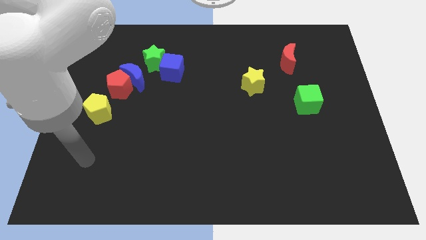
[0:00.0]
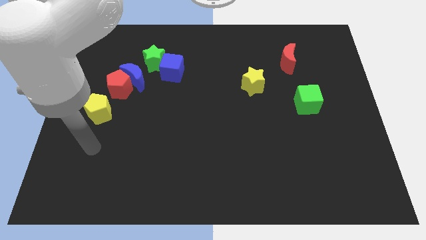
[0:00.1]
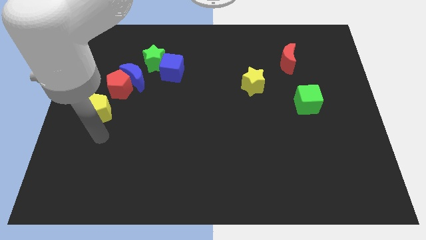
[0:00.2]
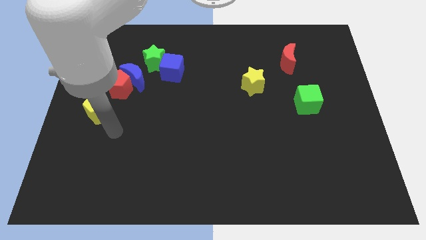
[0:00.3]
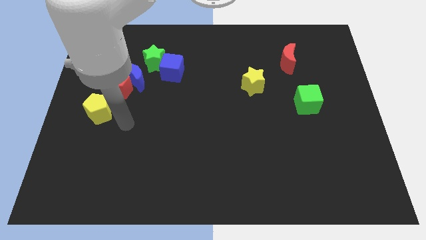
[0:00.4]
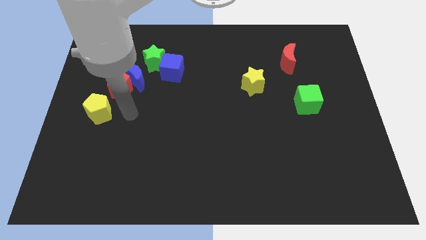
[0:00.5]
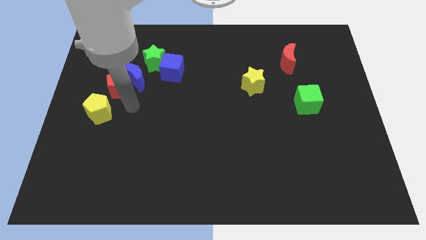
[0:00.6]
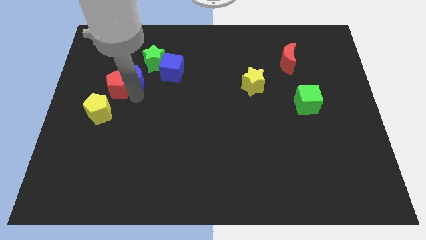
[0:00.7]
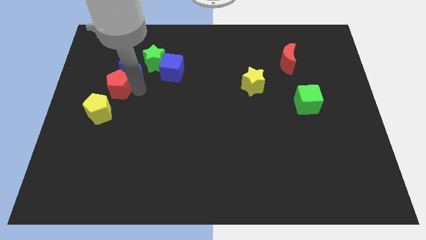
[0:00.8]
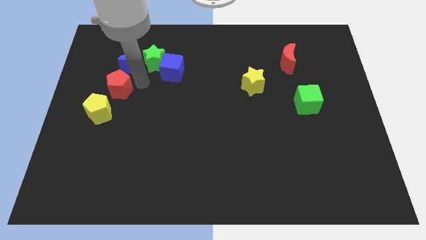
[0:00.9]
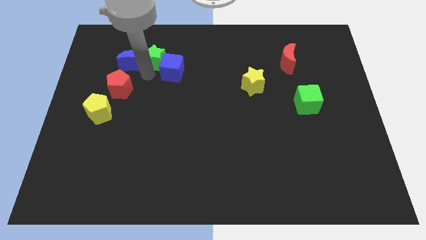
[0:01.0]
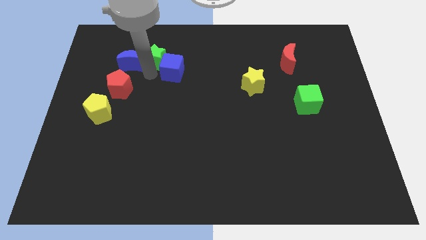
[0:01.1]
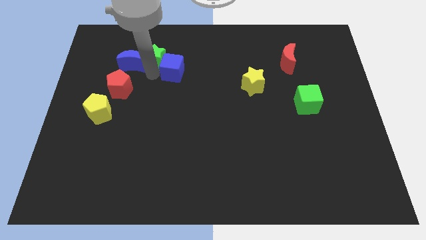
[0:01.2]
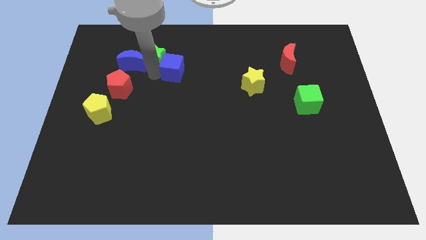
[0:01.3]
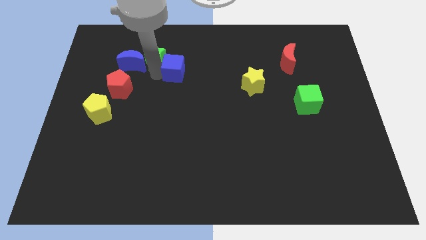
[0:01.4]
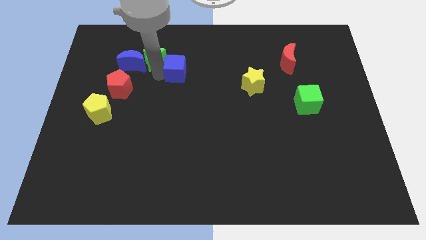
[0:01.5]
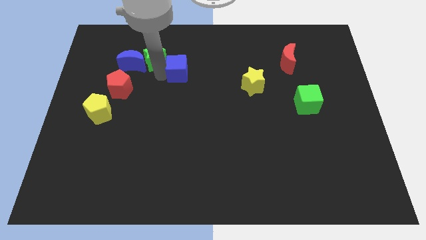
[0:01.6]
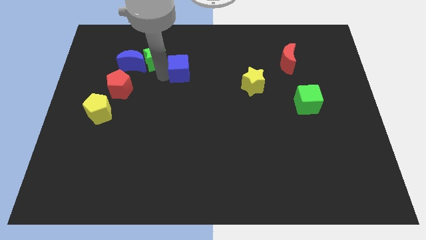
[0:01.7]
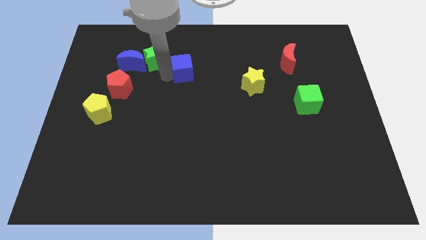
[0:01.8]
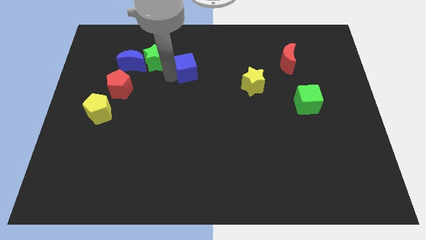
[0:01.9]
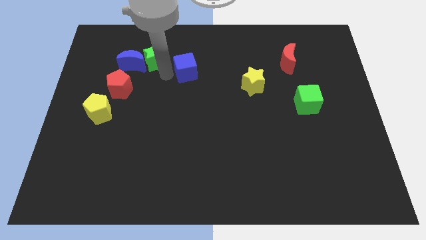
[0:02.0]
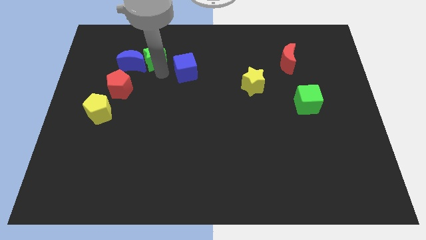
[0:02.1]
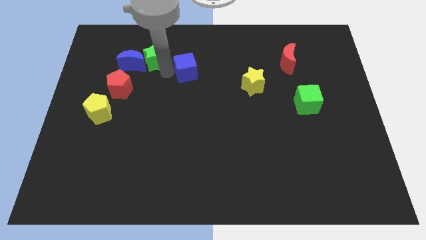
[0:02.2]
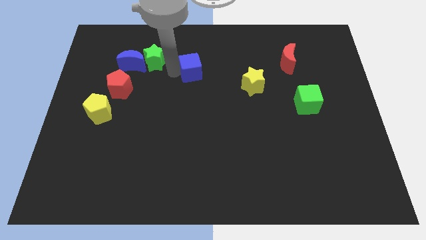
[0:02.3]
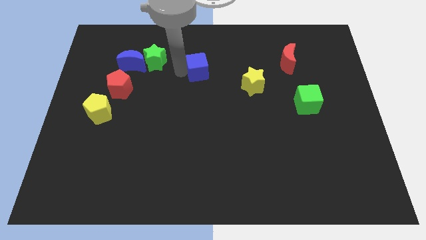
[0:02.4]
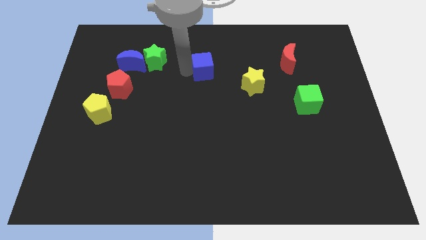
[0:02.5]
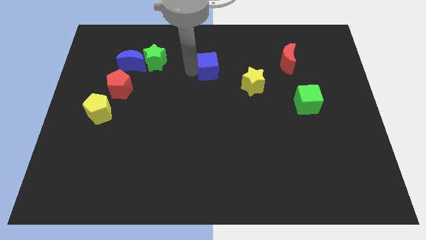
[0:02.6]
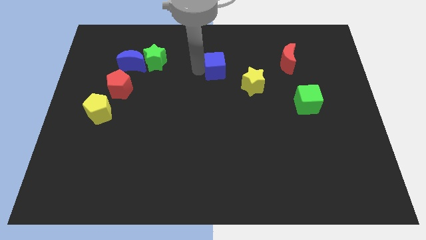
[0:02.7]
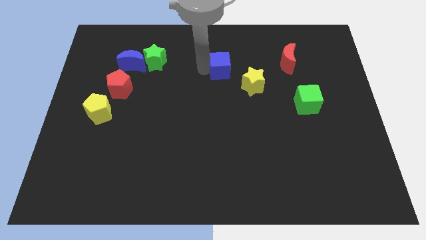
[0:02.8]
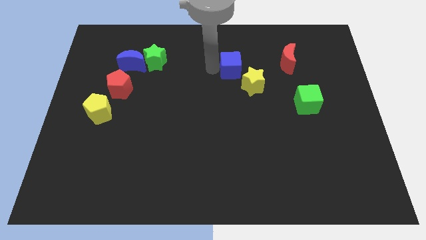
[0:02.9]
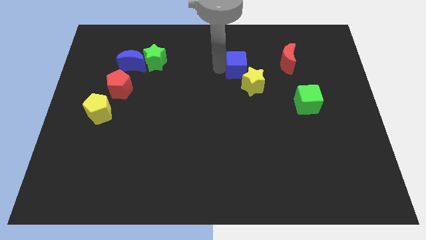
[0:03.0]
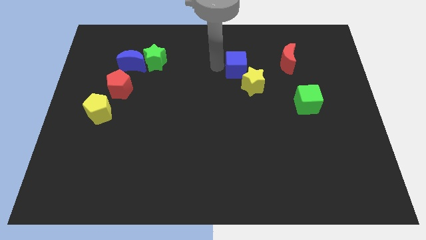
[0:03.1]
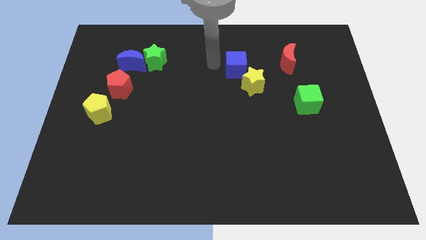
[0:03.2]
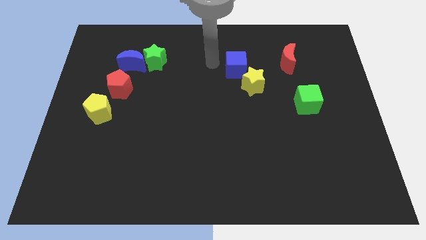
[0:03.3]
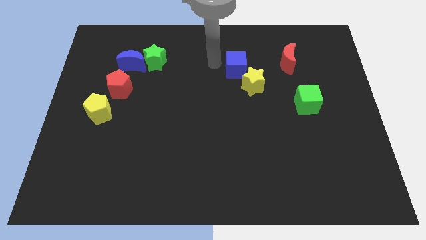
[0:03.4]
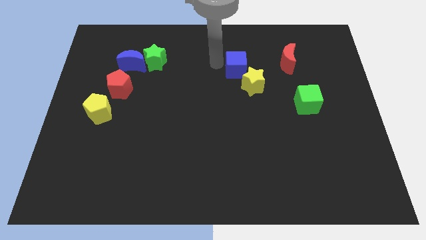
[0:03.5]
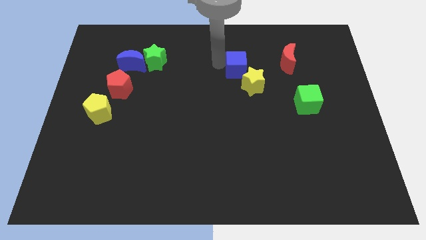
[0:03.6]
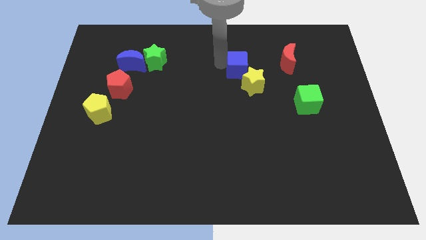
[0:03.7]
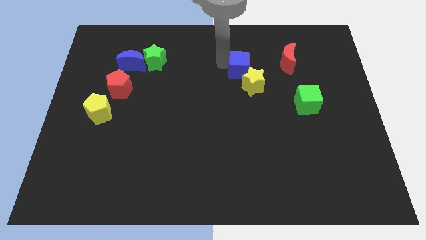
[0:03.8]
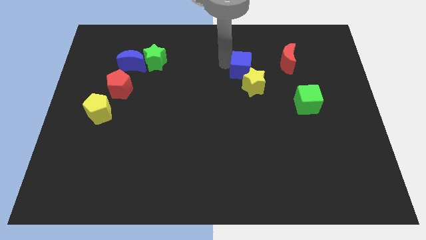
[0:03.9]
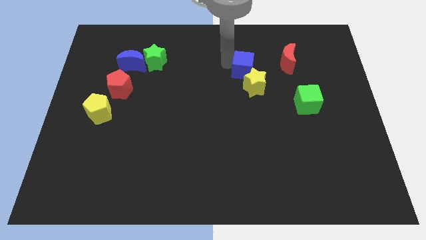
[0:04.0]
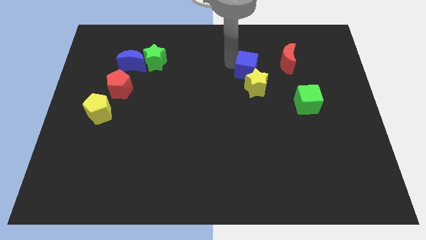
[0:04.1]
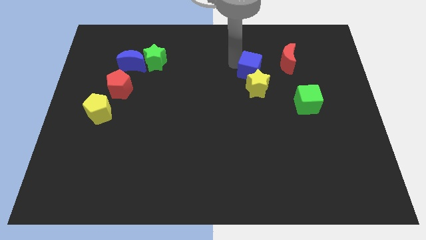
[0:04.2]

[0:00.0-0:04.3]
push the blue cube to the right

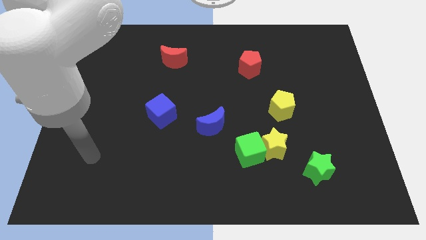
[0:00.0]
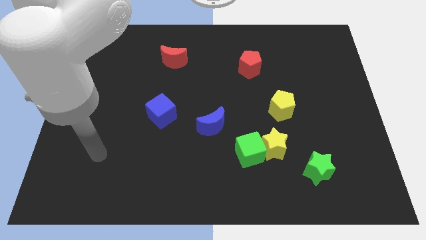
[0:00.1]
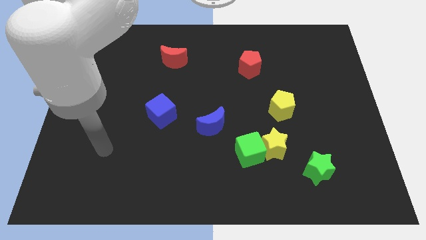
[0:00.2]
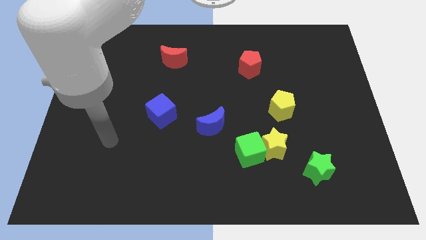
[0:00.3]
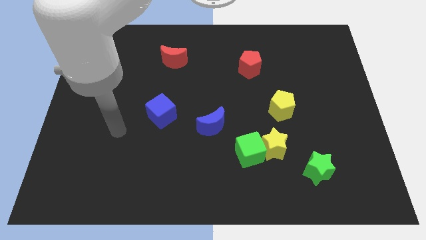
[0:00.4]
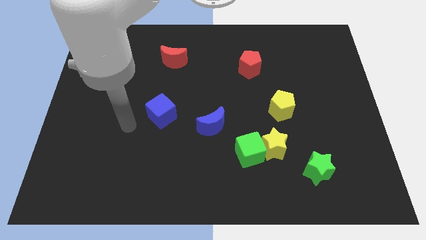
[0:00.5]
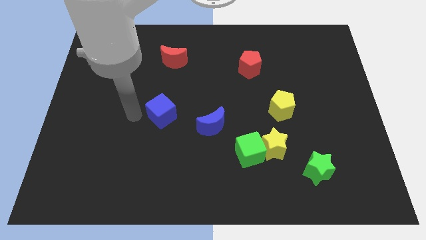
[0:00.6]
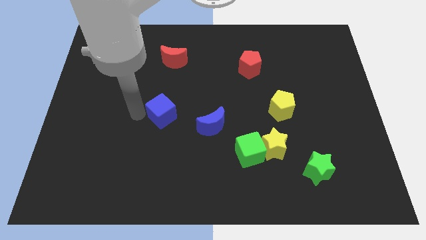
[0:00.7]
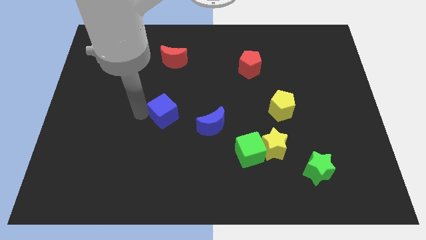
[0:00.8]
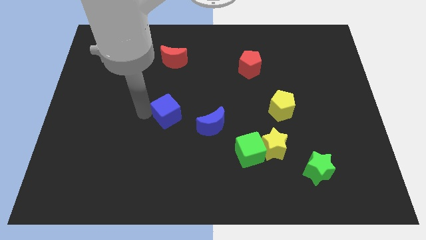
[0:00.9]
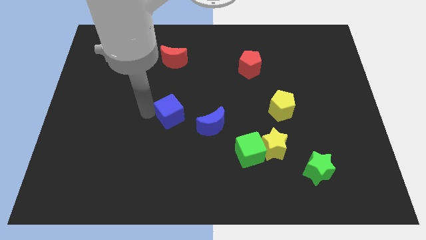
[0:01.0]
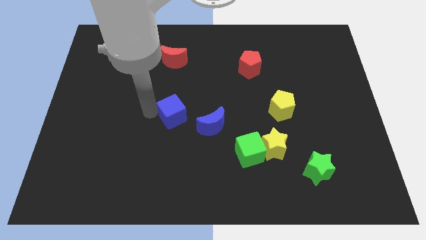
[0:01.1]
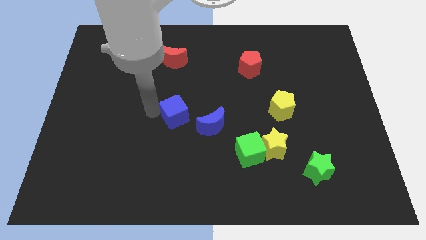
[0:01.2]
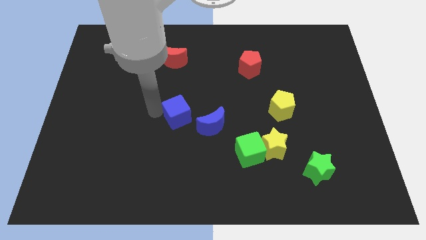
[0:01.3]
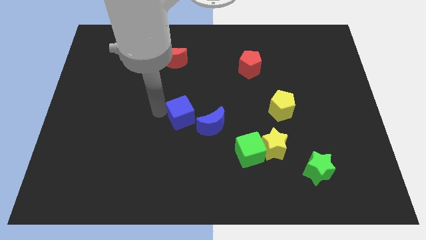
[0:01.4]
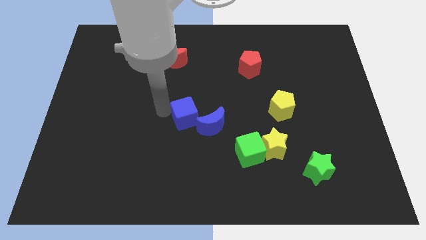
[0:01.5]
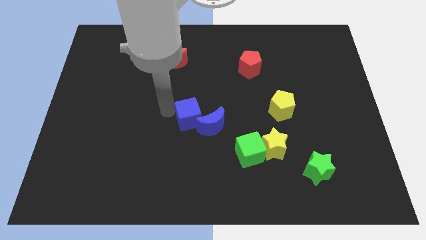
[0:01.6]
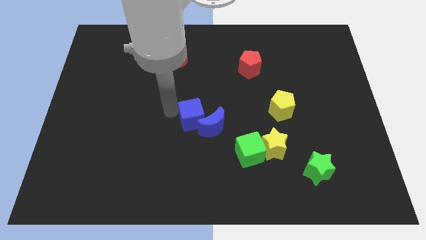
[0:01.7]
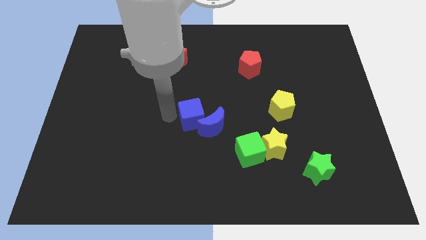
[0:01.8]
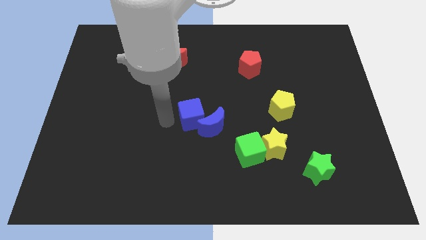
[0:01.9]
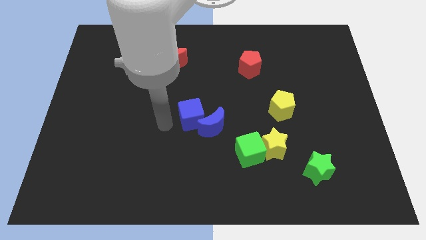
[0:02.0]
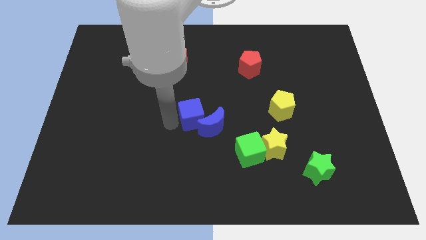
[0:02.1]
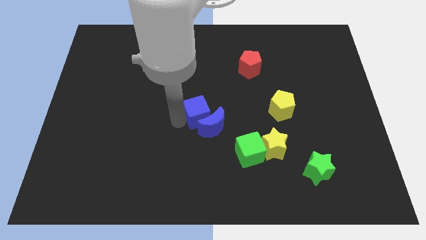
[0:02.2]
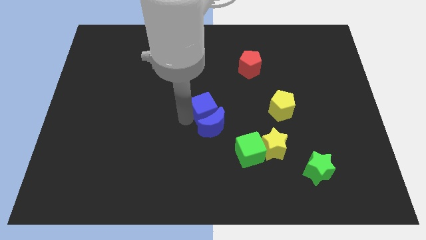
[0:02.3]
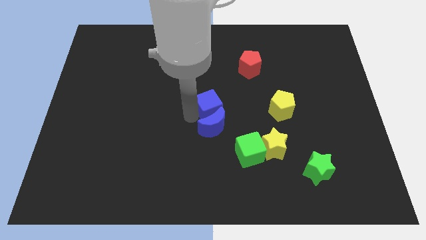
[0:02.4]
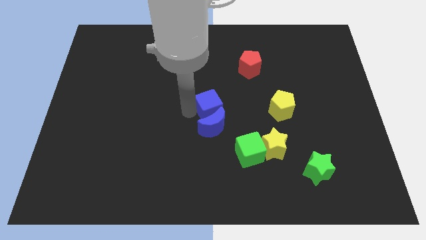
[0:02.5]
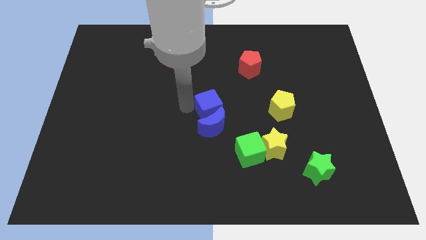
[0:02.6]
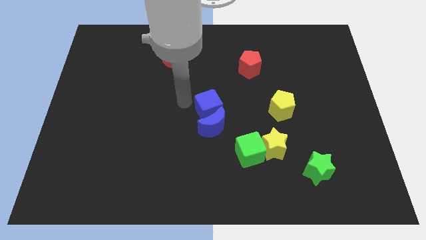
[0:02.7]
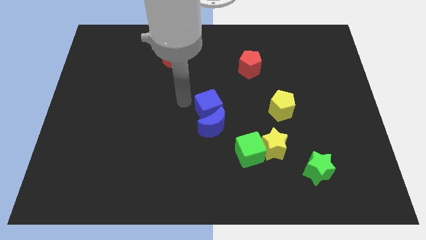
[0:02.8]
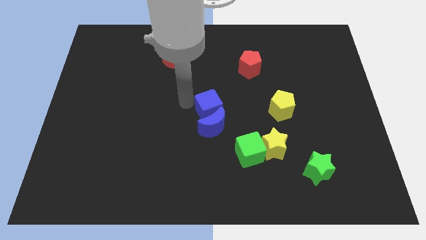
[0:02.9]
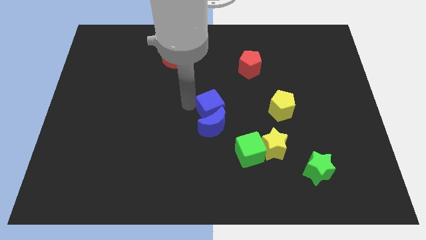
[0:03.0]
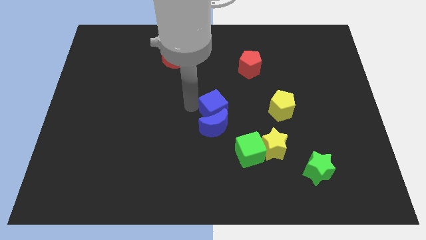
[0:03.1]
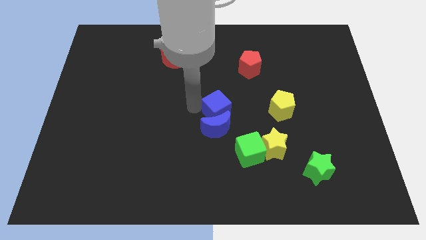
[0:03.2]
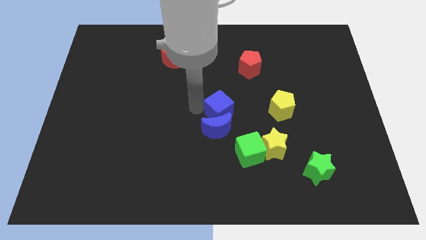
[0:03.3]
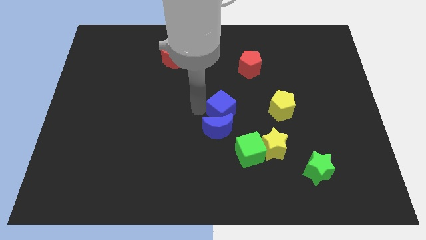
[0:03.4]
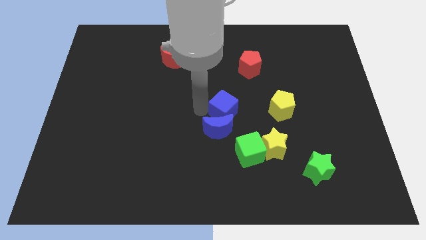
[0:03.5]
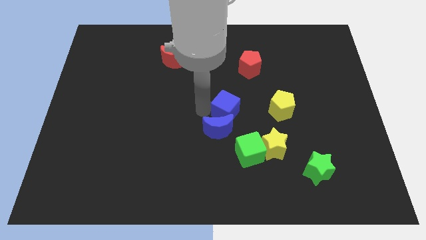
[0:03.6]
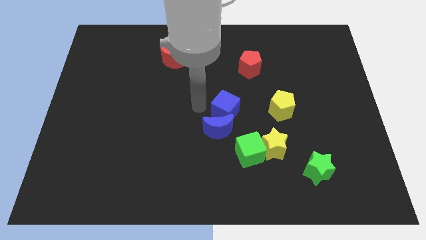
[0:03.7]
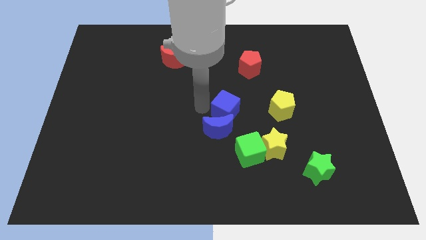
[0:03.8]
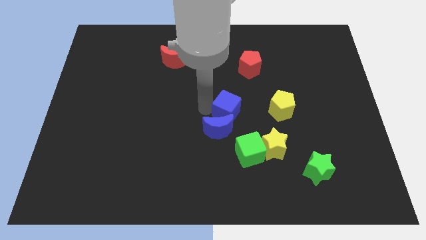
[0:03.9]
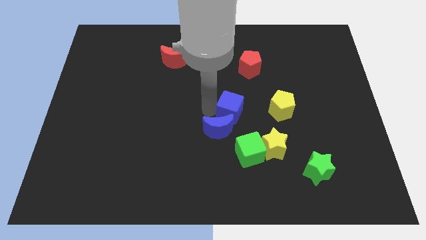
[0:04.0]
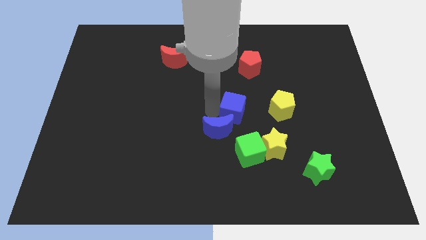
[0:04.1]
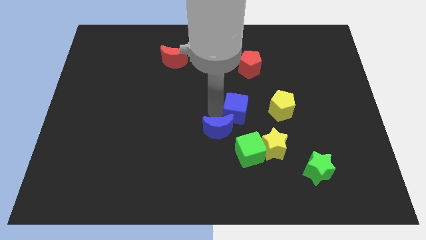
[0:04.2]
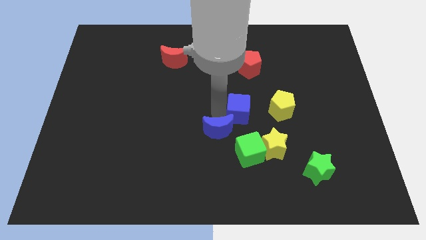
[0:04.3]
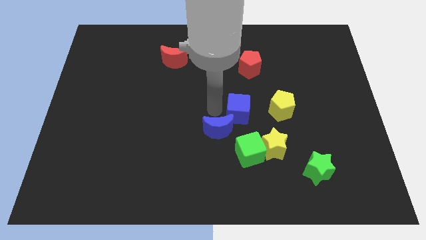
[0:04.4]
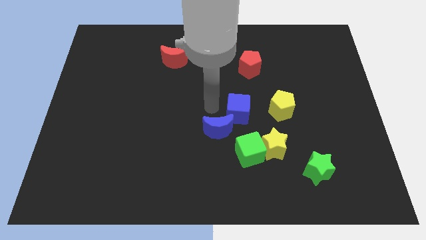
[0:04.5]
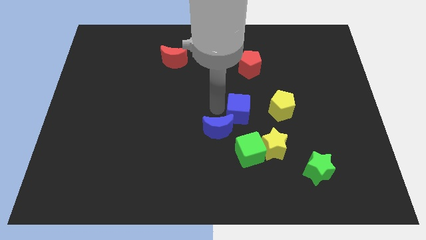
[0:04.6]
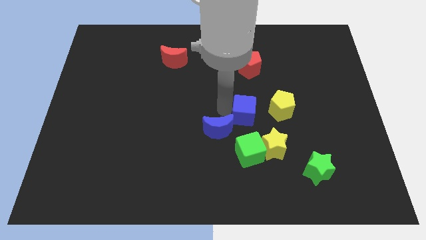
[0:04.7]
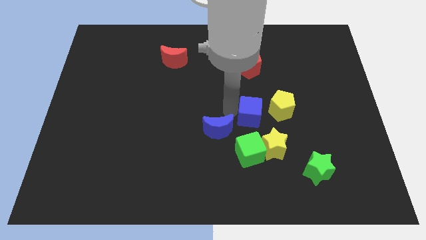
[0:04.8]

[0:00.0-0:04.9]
slide the blue cube right
